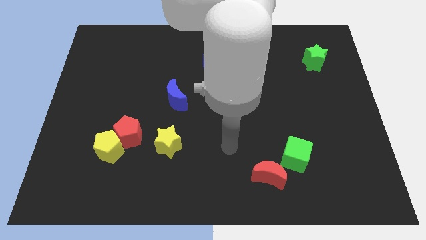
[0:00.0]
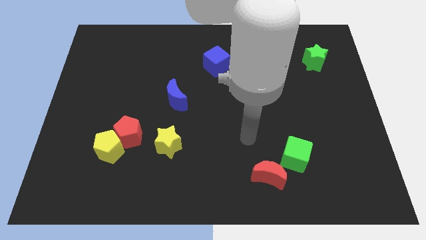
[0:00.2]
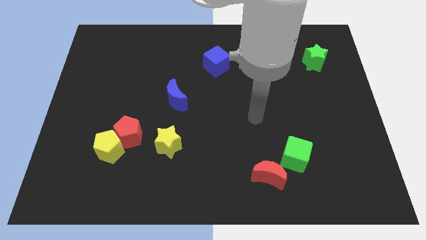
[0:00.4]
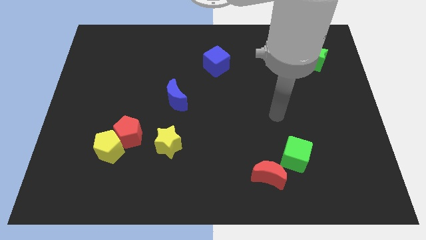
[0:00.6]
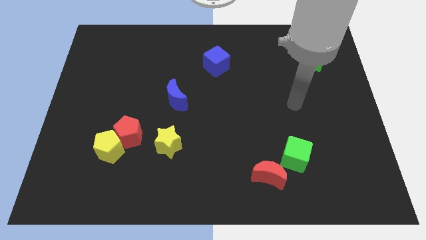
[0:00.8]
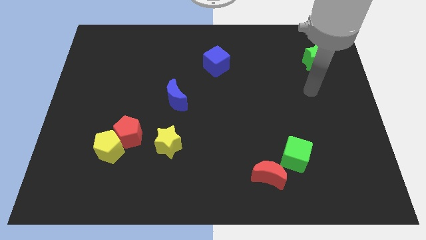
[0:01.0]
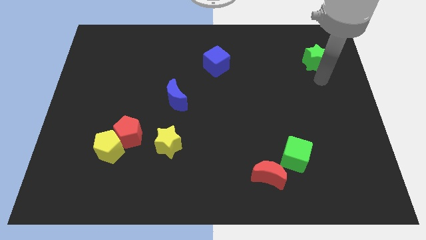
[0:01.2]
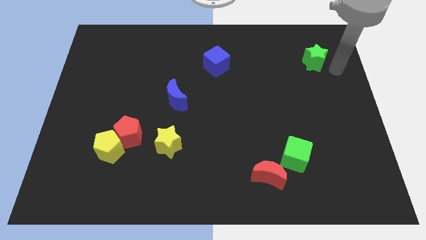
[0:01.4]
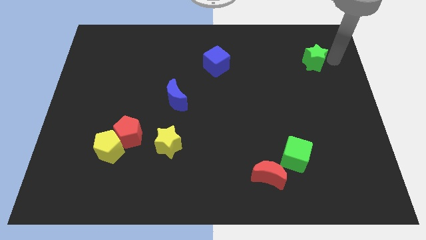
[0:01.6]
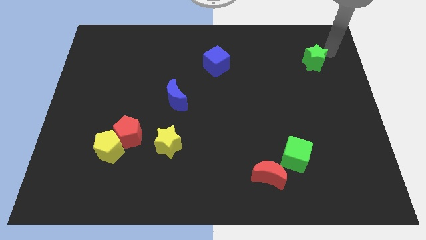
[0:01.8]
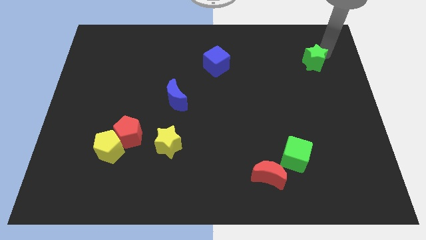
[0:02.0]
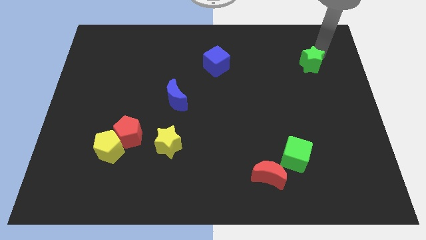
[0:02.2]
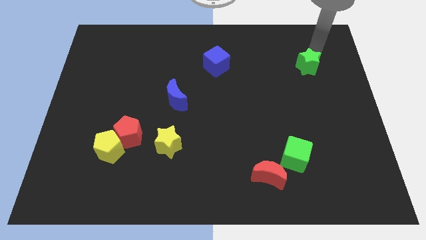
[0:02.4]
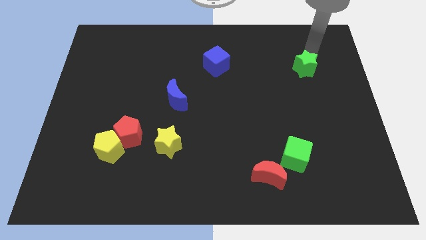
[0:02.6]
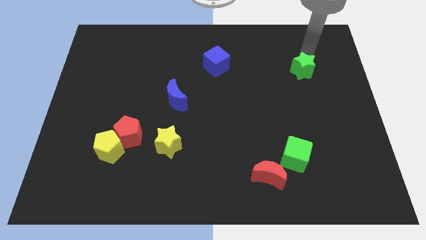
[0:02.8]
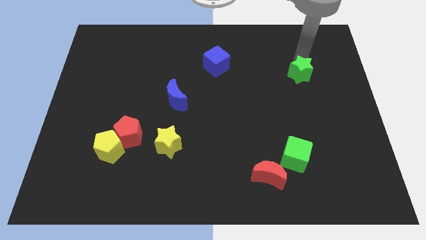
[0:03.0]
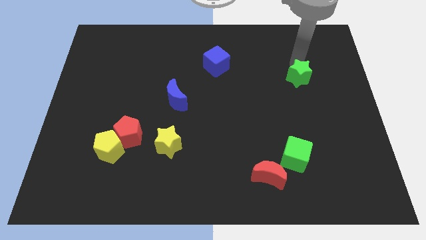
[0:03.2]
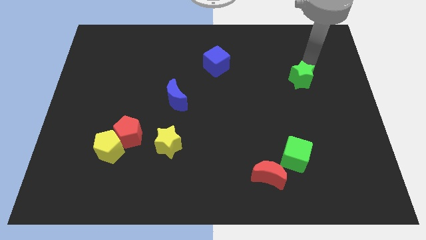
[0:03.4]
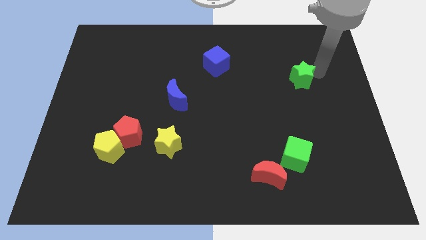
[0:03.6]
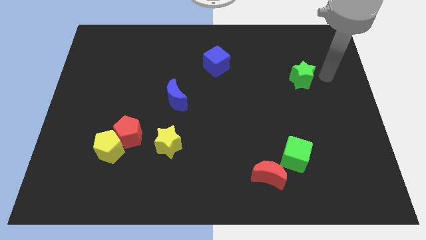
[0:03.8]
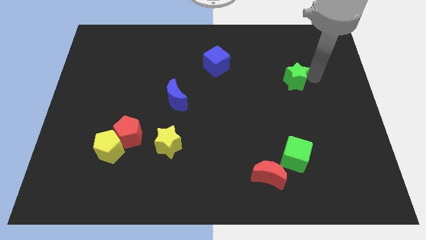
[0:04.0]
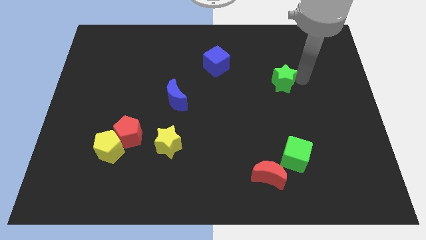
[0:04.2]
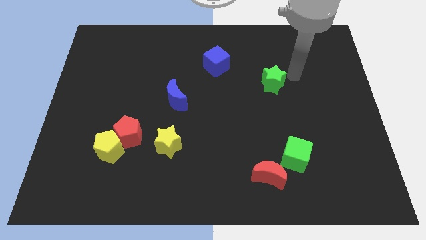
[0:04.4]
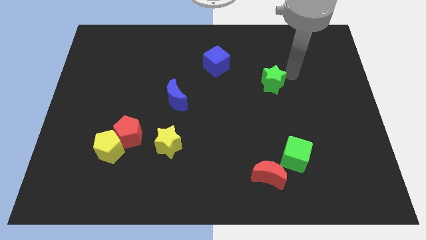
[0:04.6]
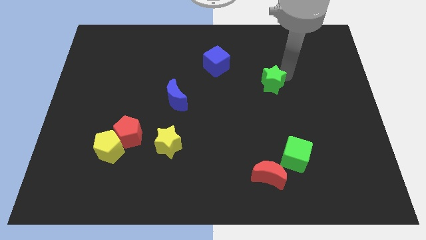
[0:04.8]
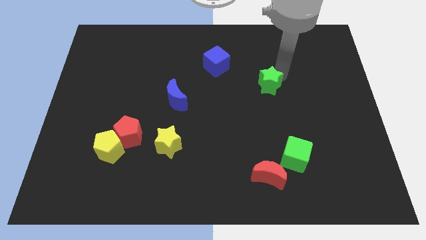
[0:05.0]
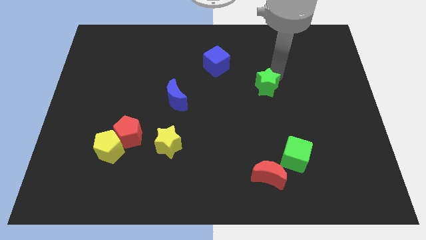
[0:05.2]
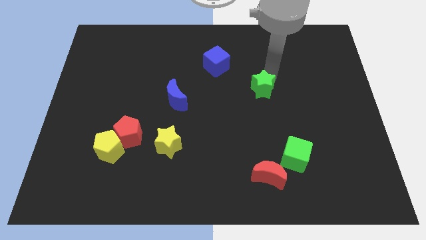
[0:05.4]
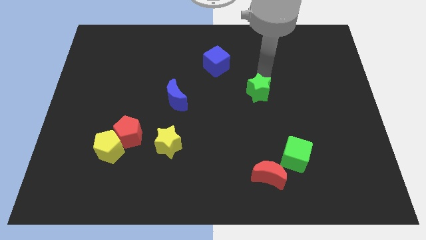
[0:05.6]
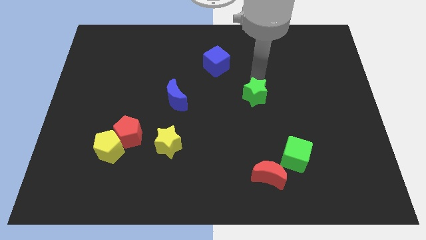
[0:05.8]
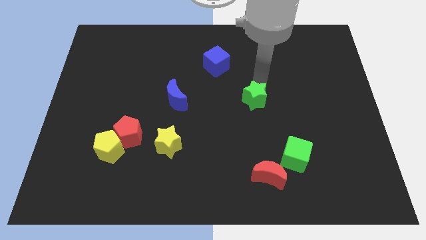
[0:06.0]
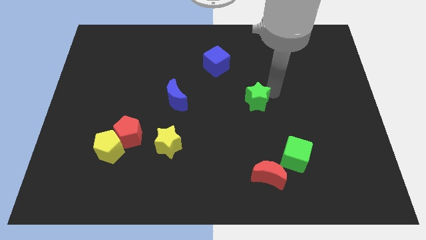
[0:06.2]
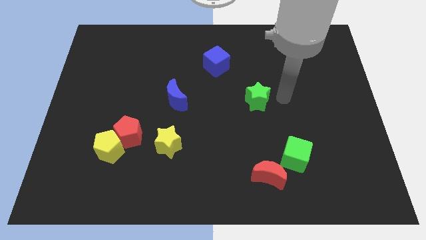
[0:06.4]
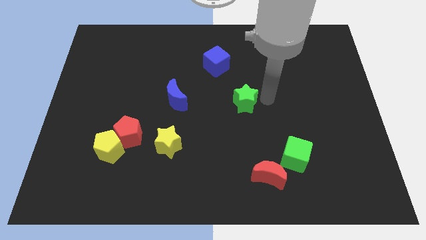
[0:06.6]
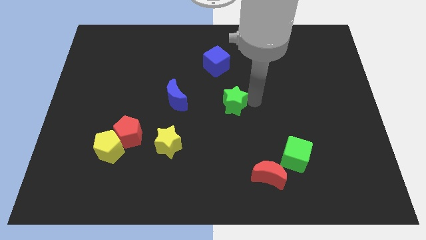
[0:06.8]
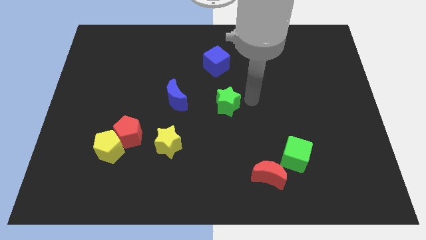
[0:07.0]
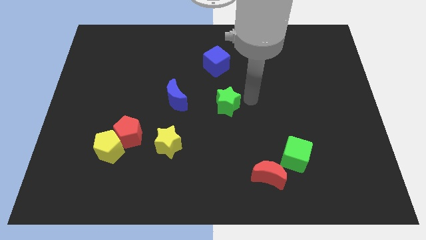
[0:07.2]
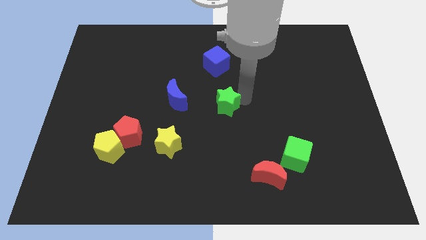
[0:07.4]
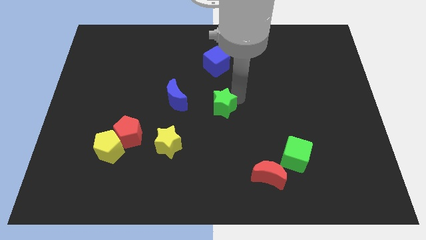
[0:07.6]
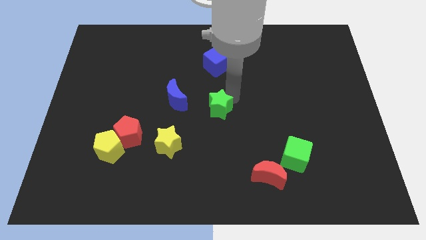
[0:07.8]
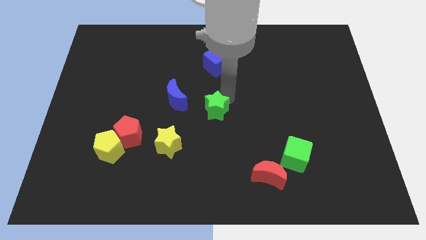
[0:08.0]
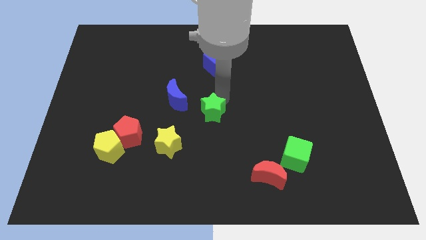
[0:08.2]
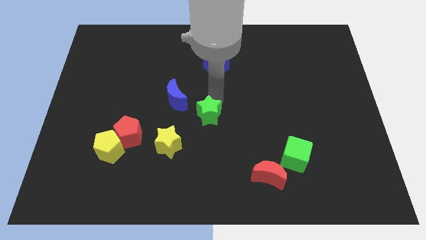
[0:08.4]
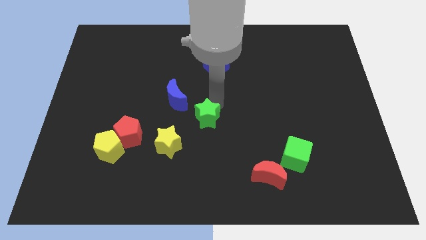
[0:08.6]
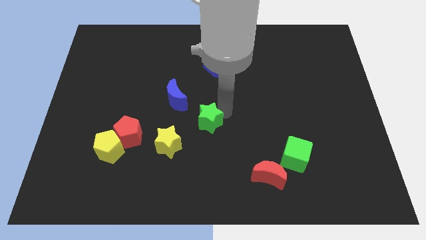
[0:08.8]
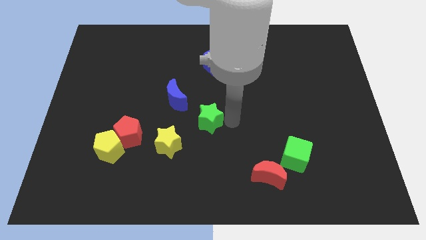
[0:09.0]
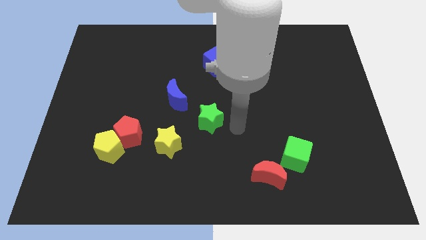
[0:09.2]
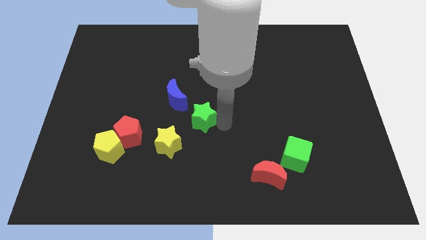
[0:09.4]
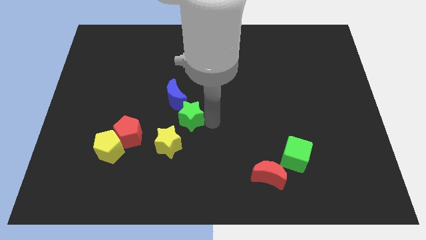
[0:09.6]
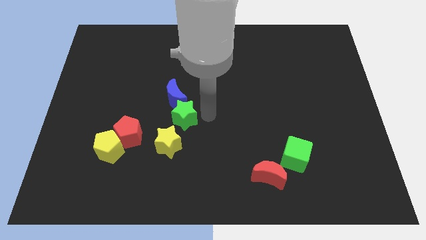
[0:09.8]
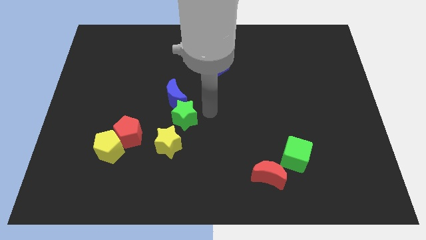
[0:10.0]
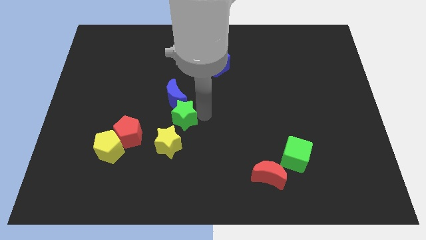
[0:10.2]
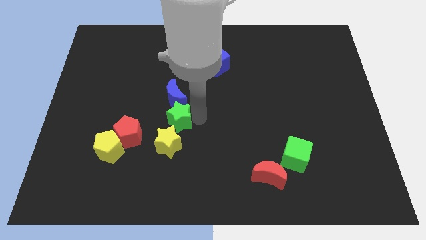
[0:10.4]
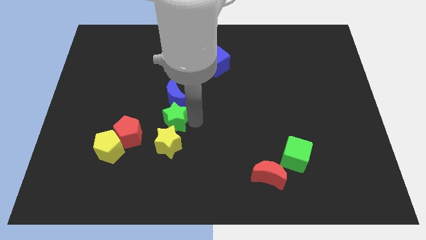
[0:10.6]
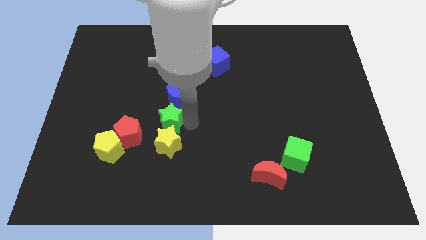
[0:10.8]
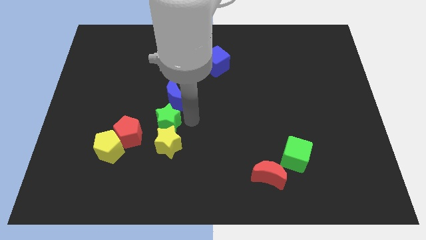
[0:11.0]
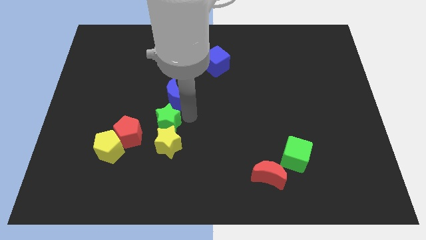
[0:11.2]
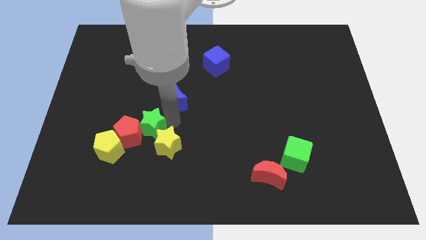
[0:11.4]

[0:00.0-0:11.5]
slide the green star towards the red pentagon

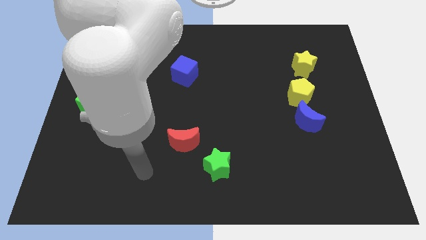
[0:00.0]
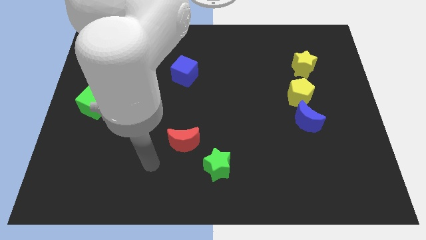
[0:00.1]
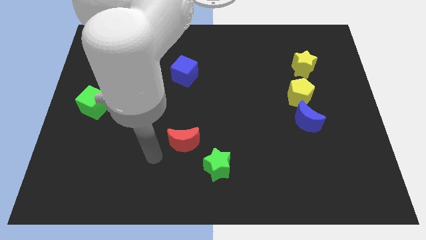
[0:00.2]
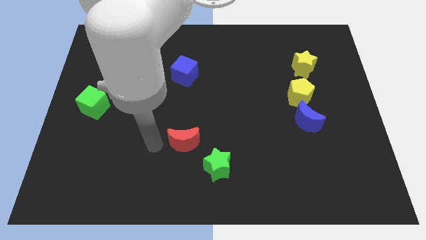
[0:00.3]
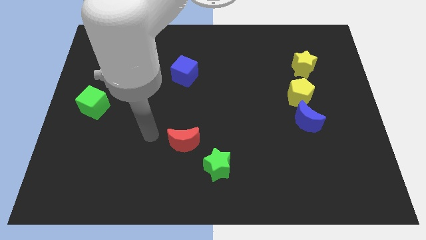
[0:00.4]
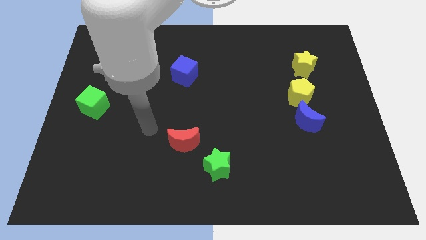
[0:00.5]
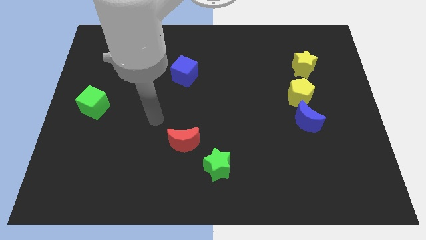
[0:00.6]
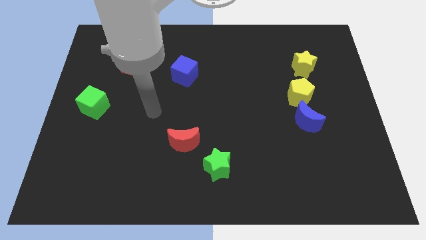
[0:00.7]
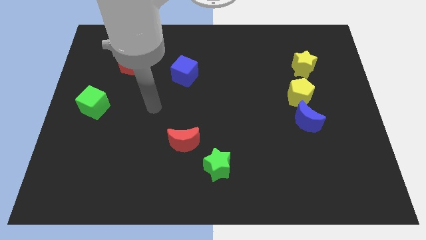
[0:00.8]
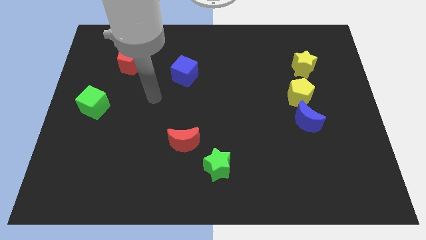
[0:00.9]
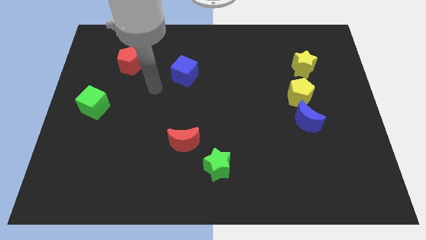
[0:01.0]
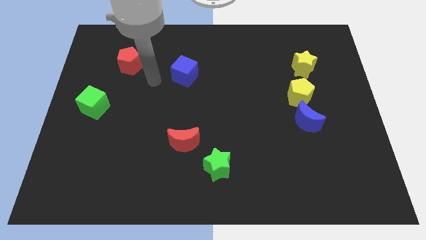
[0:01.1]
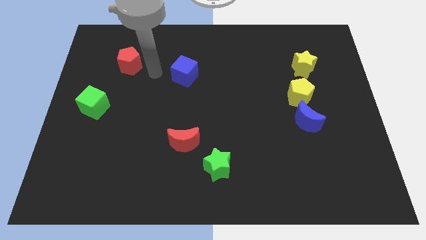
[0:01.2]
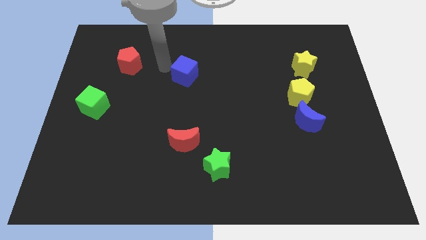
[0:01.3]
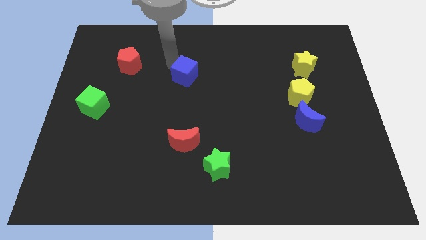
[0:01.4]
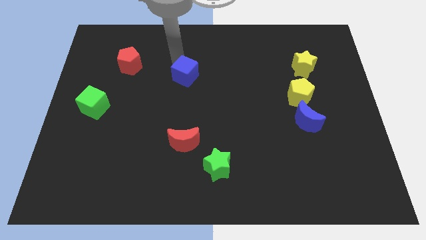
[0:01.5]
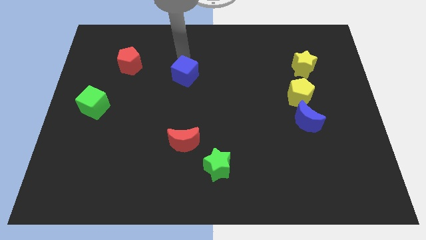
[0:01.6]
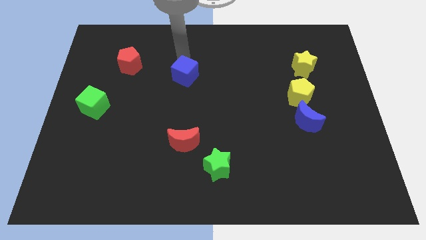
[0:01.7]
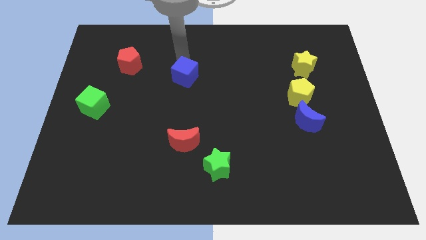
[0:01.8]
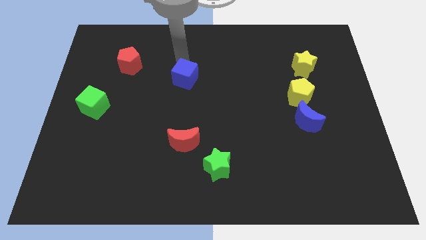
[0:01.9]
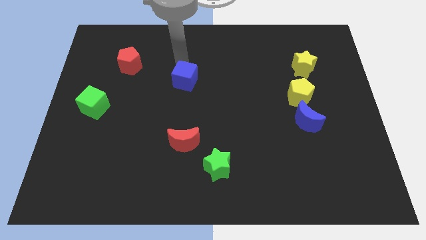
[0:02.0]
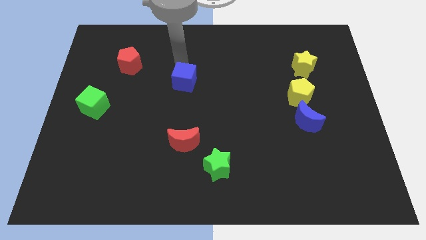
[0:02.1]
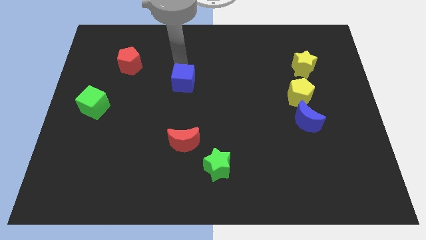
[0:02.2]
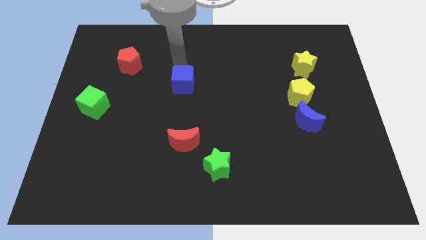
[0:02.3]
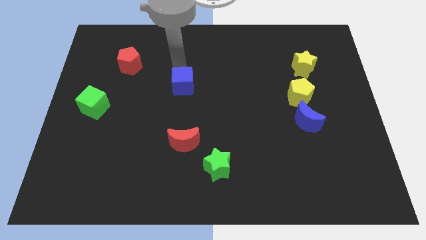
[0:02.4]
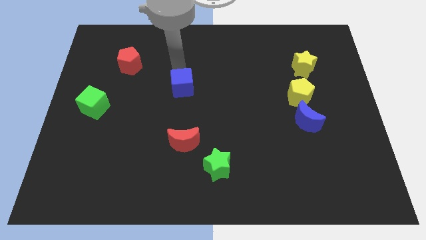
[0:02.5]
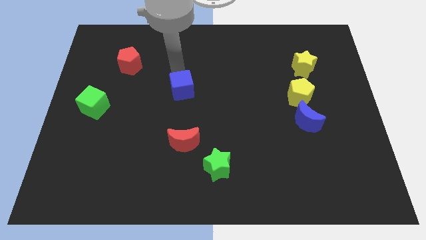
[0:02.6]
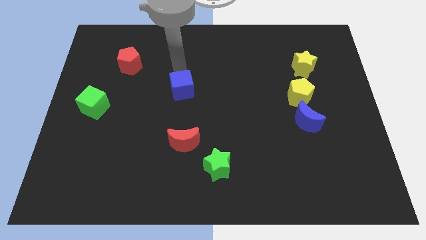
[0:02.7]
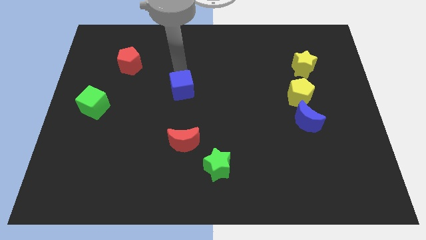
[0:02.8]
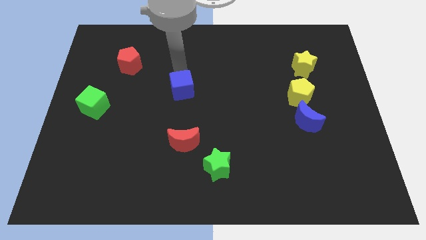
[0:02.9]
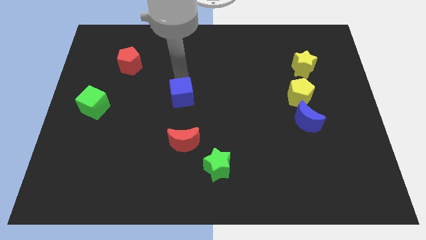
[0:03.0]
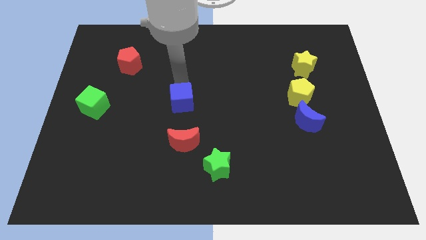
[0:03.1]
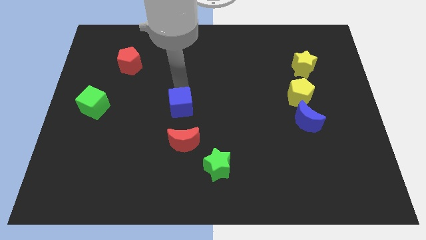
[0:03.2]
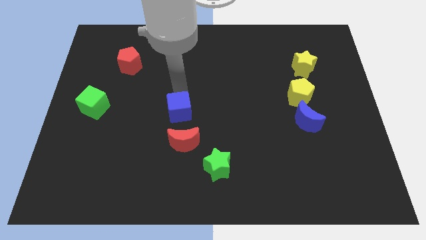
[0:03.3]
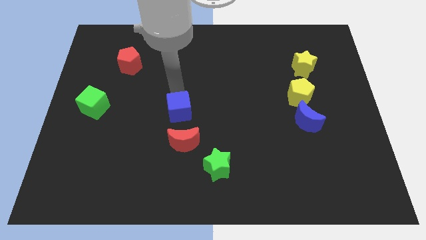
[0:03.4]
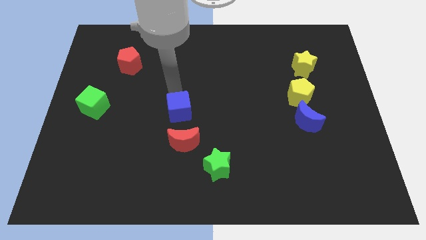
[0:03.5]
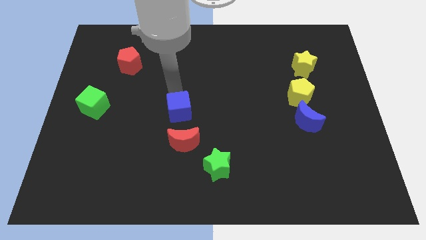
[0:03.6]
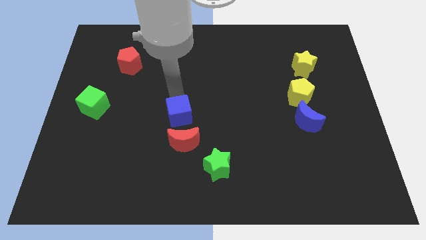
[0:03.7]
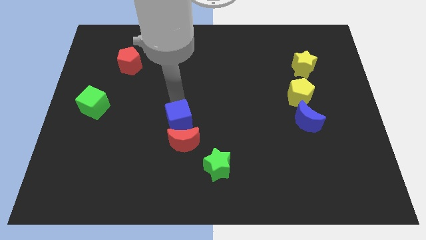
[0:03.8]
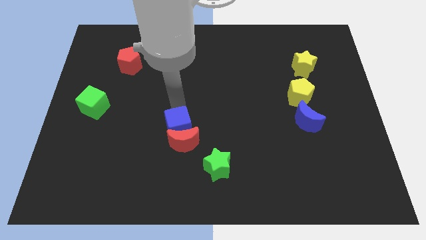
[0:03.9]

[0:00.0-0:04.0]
put the blue cube next to the red moon
